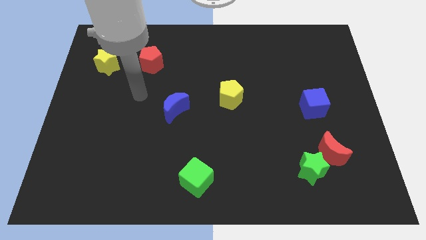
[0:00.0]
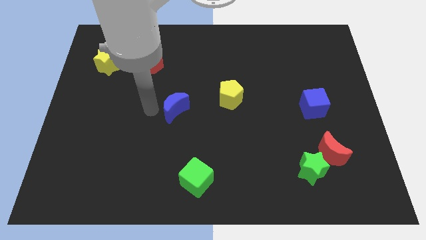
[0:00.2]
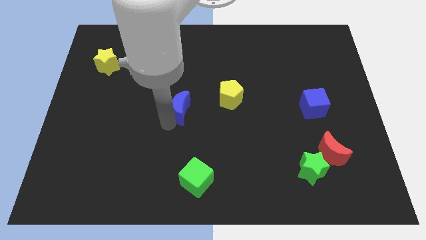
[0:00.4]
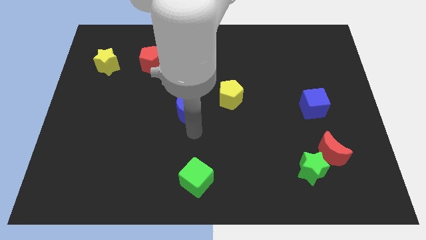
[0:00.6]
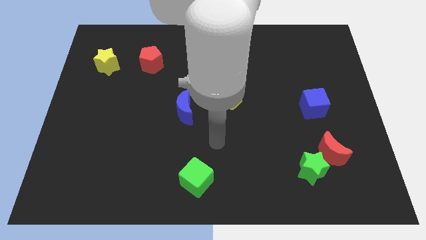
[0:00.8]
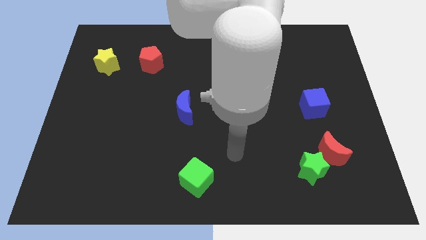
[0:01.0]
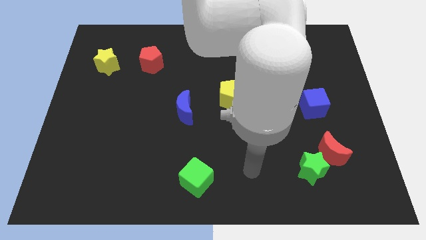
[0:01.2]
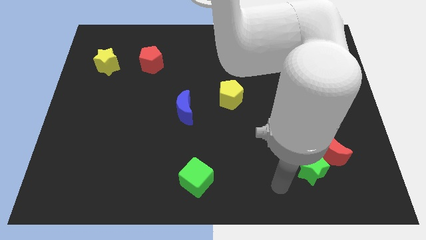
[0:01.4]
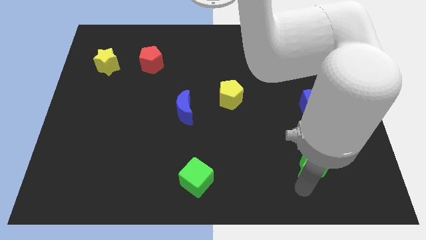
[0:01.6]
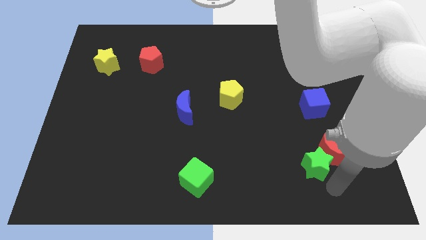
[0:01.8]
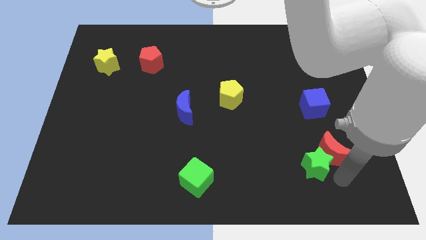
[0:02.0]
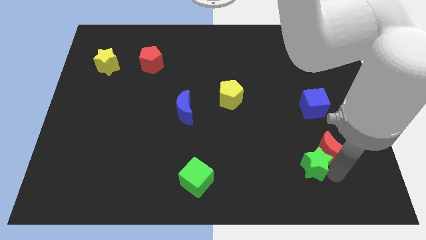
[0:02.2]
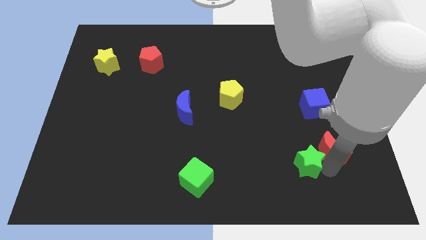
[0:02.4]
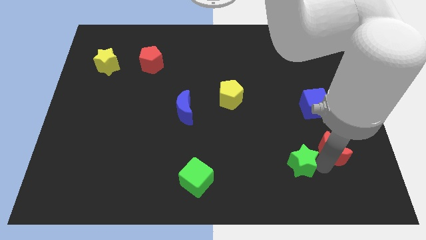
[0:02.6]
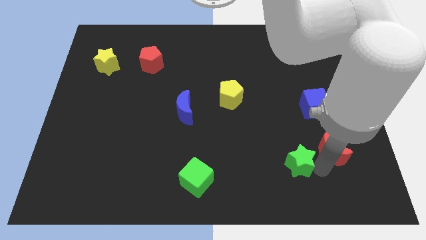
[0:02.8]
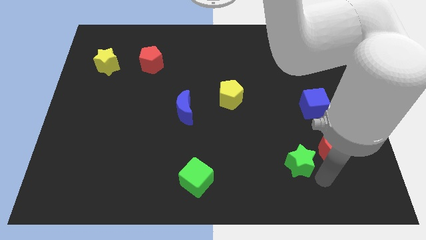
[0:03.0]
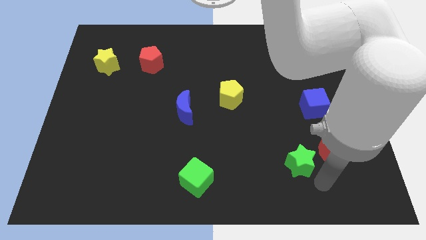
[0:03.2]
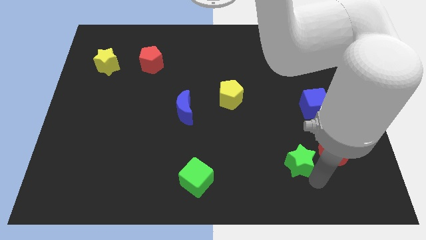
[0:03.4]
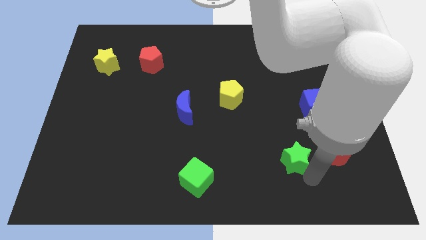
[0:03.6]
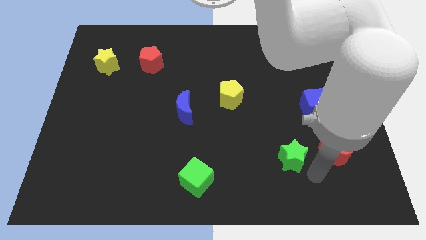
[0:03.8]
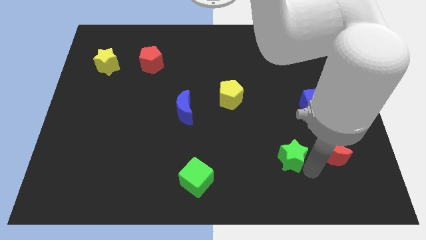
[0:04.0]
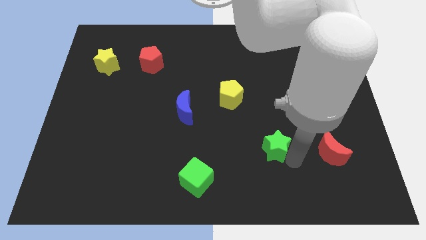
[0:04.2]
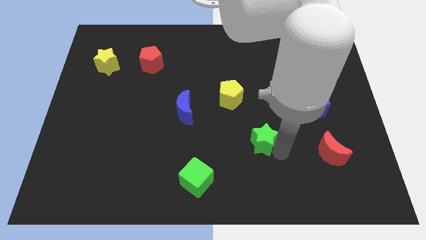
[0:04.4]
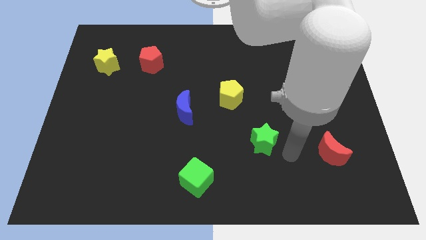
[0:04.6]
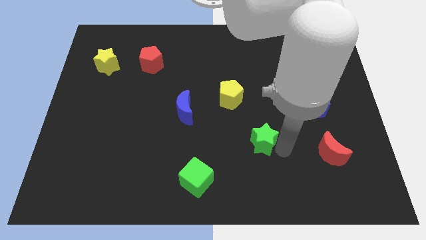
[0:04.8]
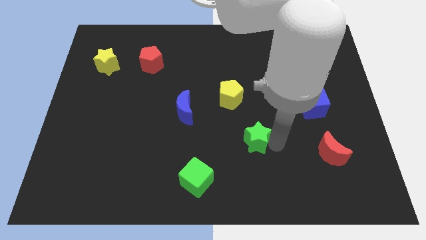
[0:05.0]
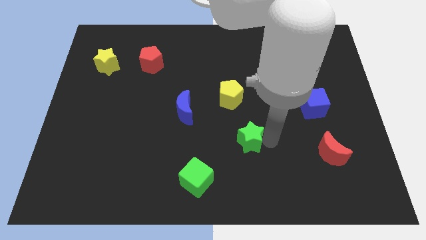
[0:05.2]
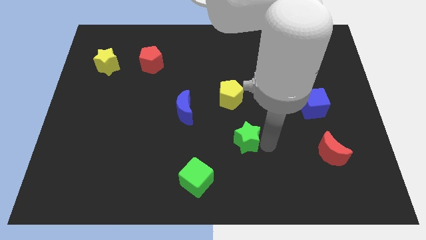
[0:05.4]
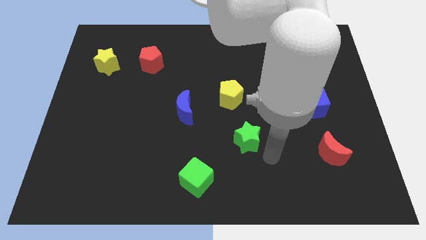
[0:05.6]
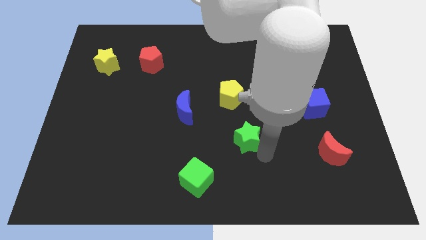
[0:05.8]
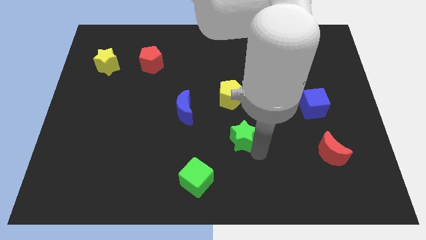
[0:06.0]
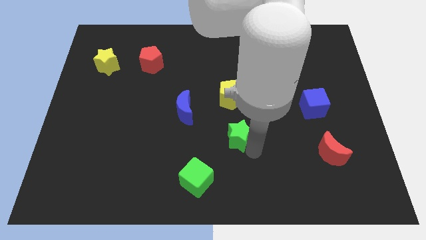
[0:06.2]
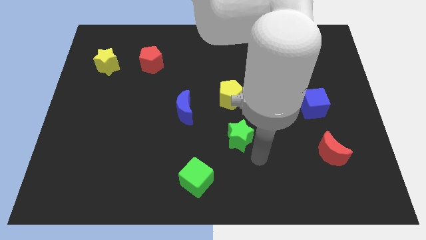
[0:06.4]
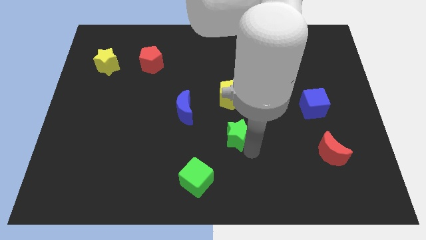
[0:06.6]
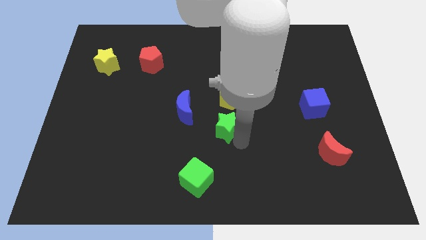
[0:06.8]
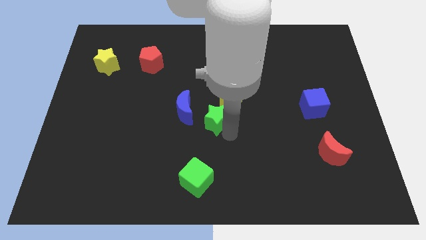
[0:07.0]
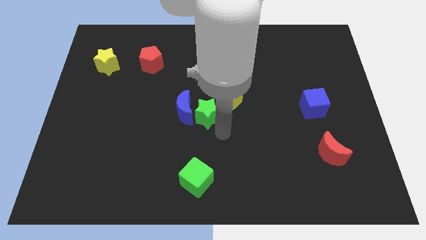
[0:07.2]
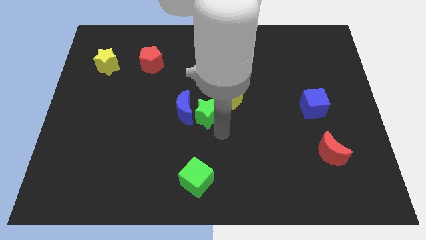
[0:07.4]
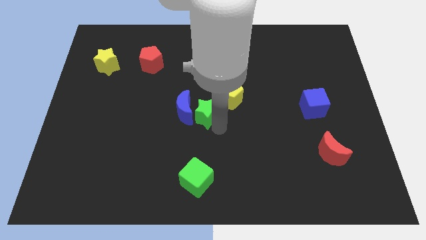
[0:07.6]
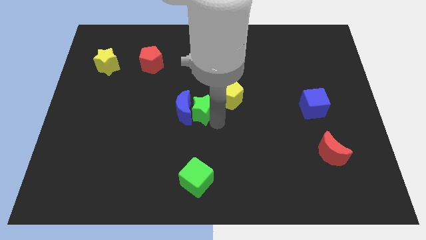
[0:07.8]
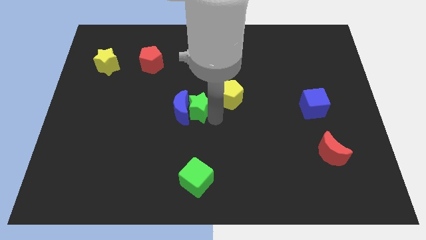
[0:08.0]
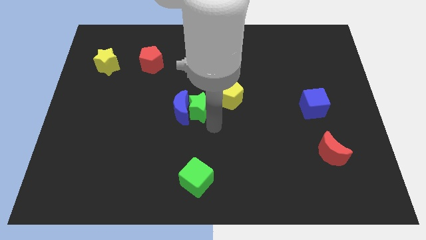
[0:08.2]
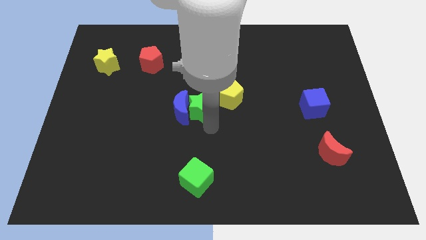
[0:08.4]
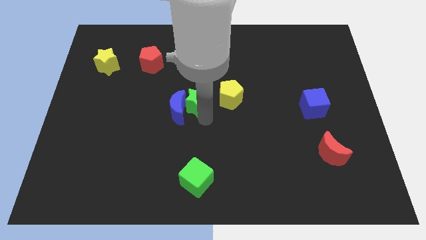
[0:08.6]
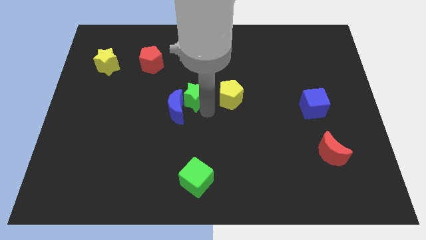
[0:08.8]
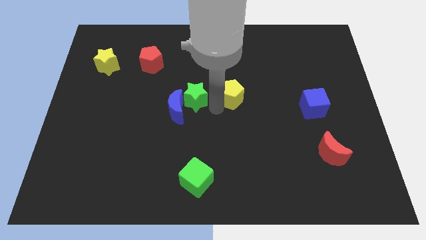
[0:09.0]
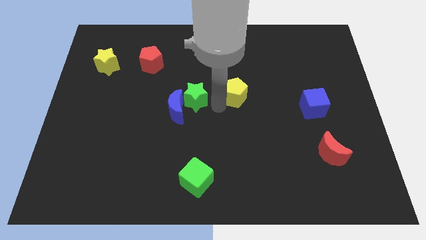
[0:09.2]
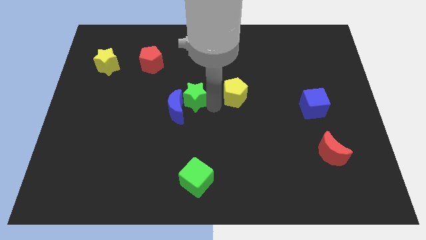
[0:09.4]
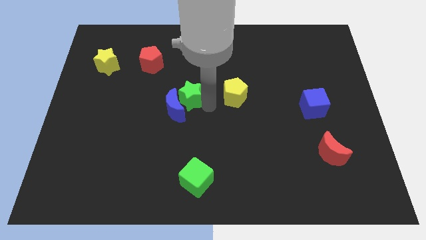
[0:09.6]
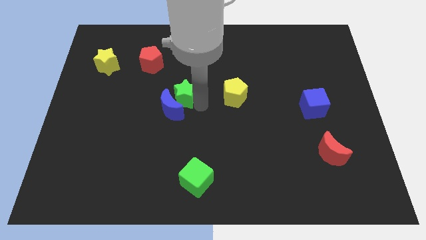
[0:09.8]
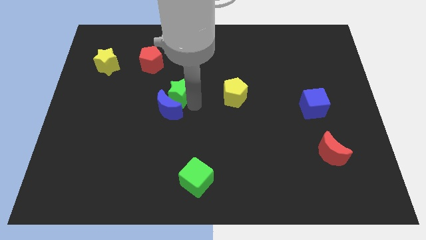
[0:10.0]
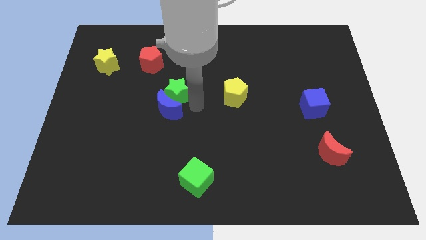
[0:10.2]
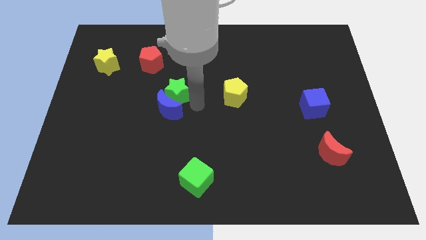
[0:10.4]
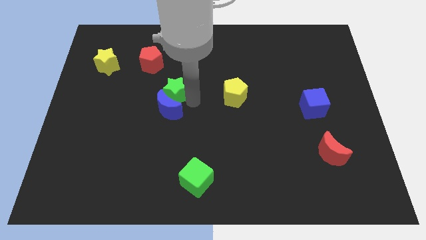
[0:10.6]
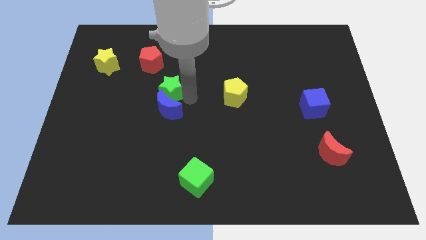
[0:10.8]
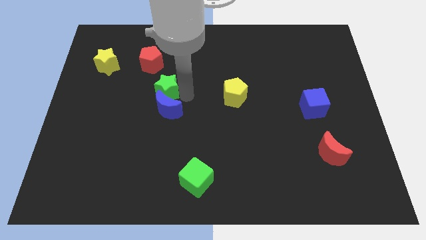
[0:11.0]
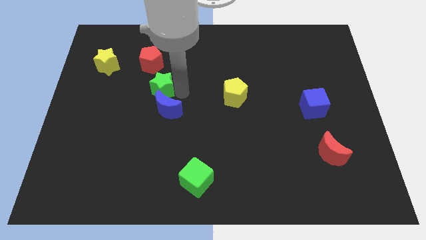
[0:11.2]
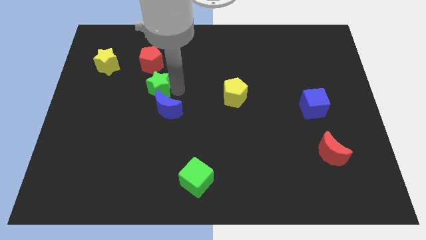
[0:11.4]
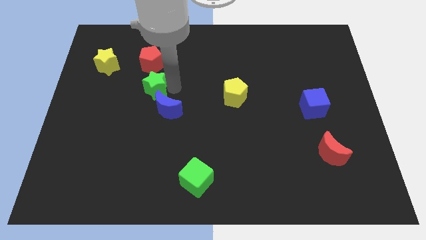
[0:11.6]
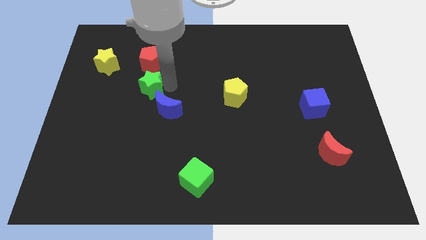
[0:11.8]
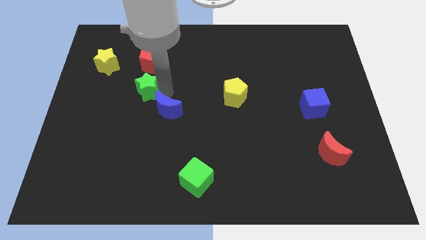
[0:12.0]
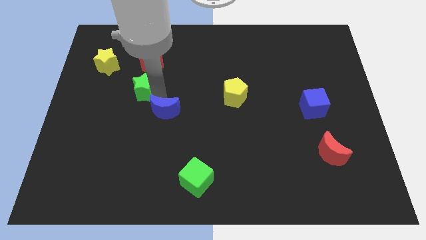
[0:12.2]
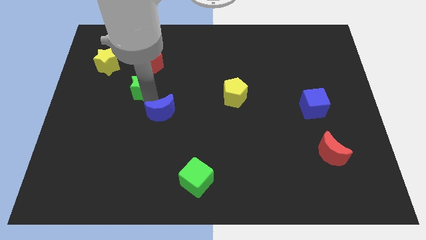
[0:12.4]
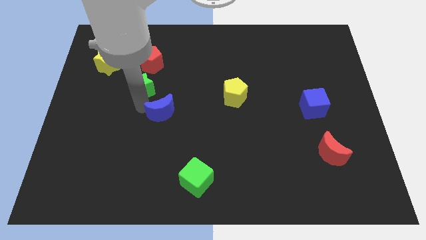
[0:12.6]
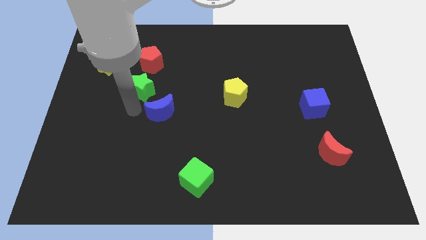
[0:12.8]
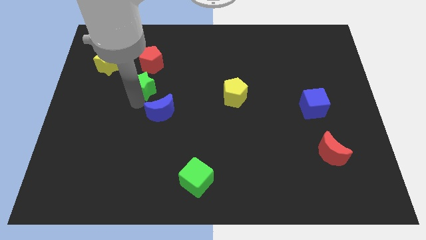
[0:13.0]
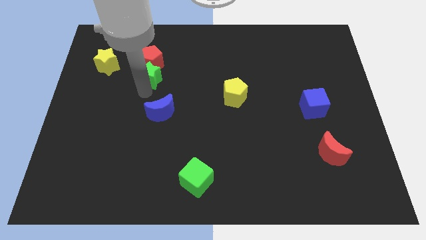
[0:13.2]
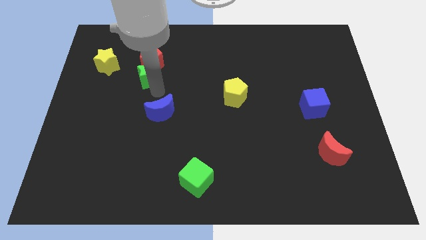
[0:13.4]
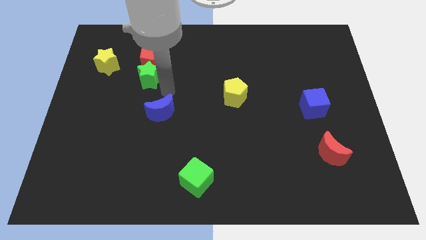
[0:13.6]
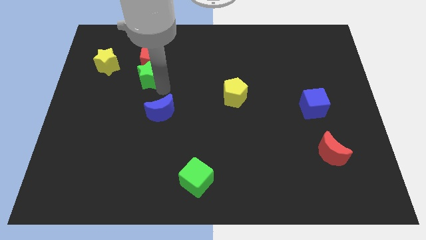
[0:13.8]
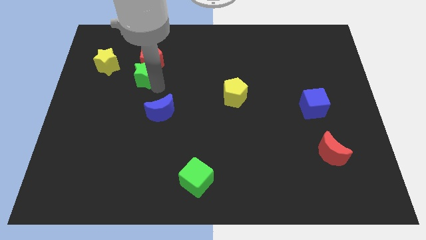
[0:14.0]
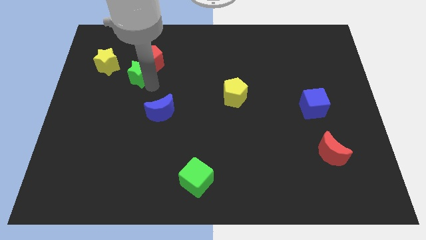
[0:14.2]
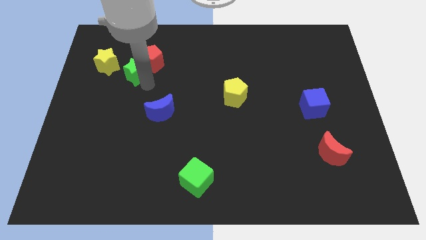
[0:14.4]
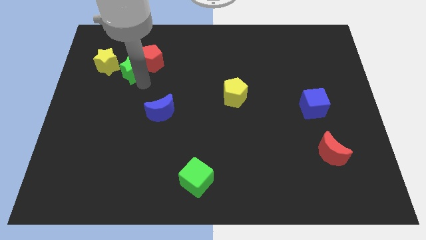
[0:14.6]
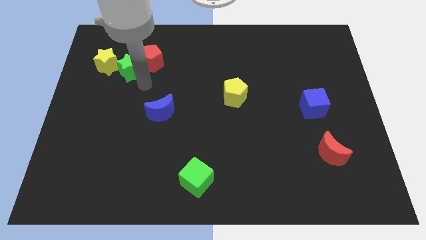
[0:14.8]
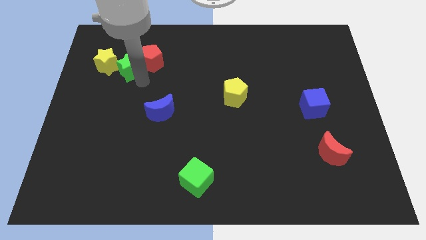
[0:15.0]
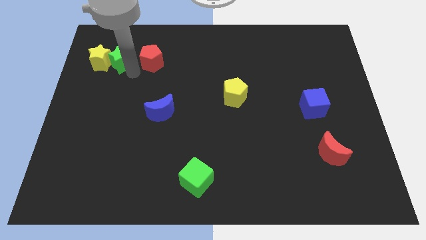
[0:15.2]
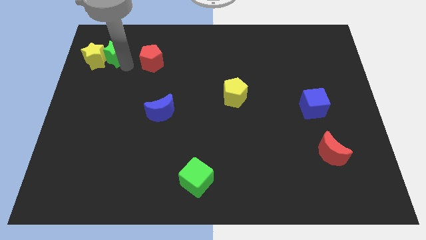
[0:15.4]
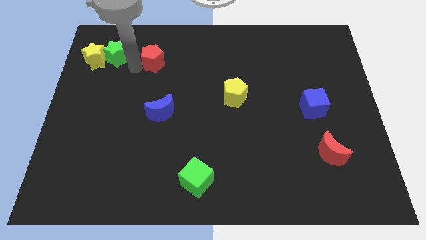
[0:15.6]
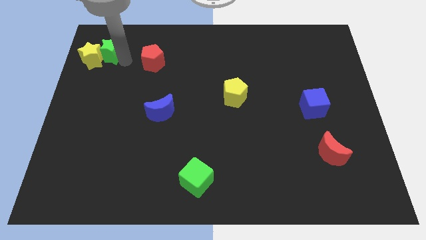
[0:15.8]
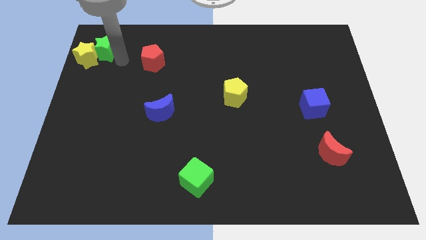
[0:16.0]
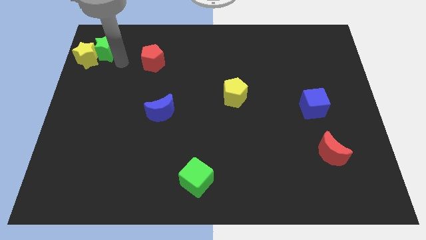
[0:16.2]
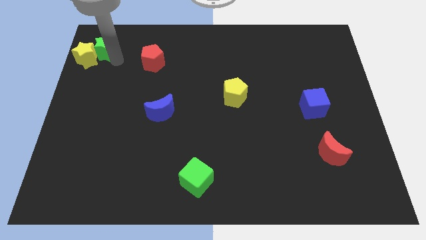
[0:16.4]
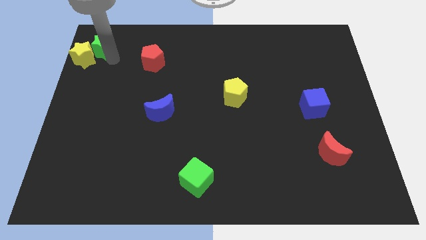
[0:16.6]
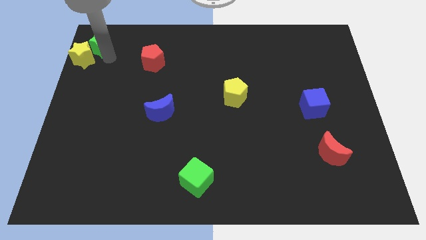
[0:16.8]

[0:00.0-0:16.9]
slide the green star to the top left
